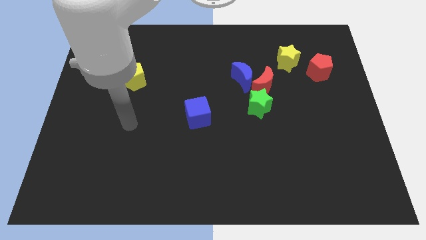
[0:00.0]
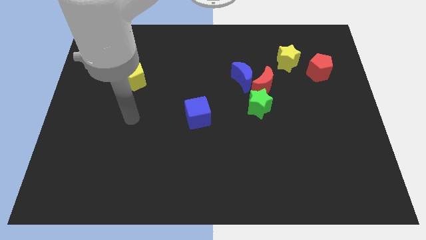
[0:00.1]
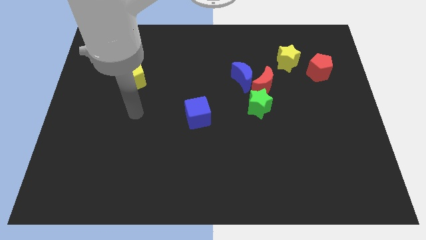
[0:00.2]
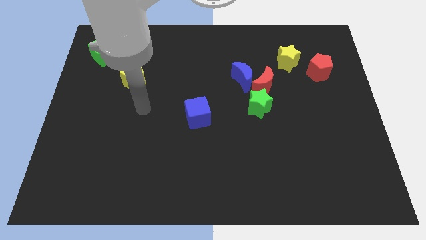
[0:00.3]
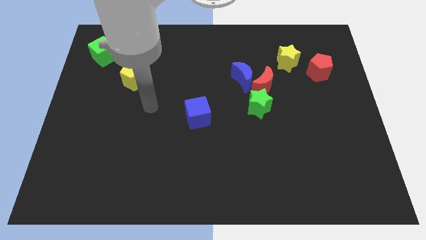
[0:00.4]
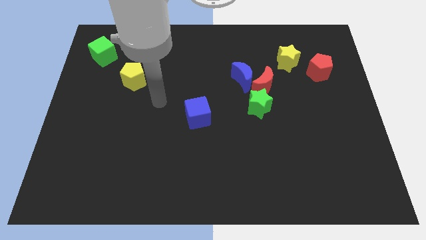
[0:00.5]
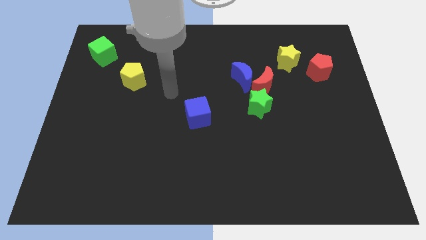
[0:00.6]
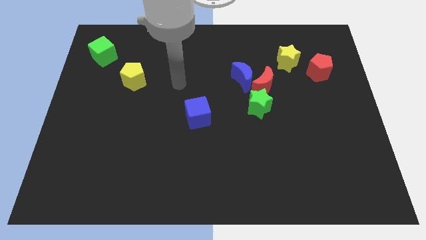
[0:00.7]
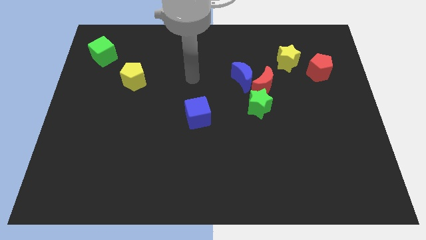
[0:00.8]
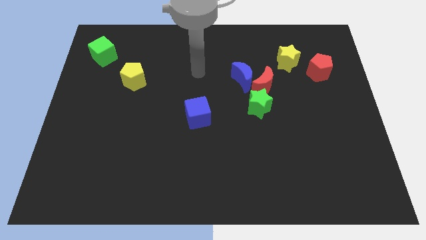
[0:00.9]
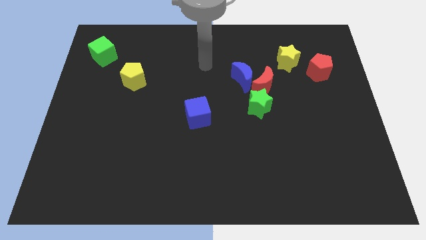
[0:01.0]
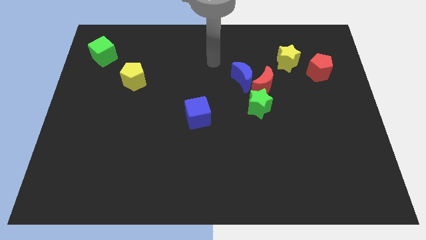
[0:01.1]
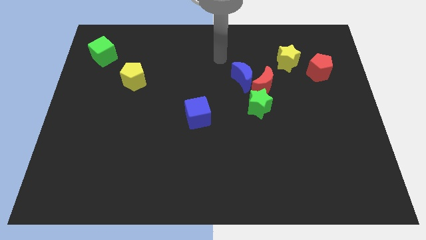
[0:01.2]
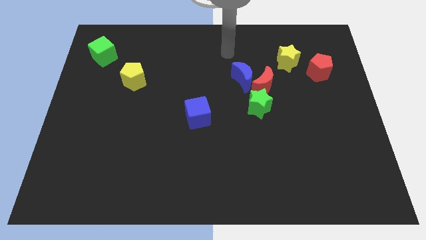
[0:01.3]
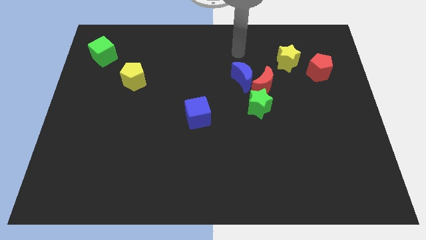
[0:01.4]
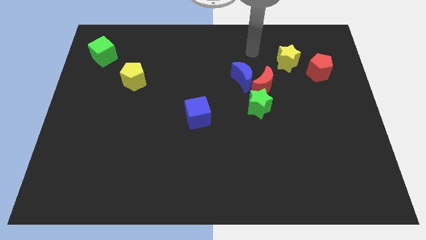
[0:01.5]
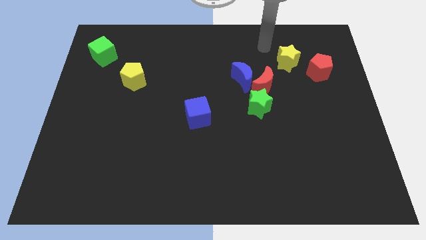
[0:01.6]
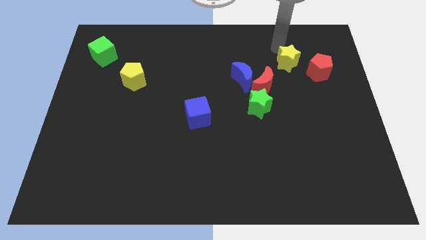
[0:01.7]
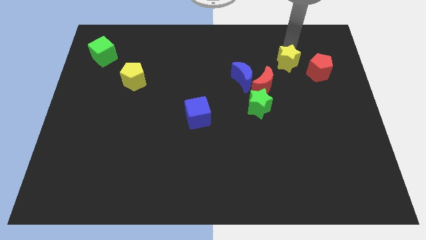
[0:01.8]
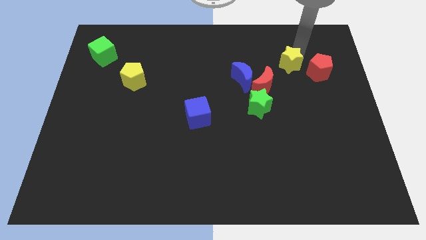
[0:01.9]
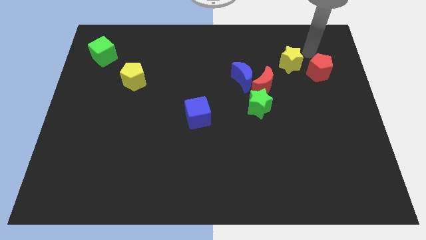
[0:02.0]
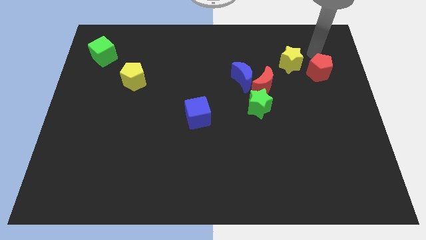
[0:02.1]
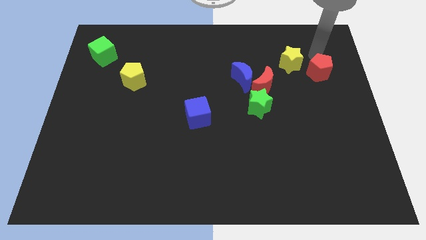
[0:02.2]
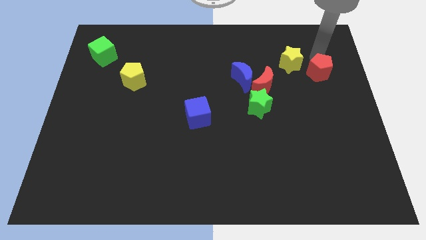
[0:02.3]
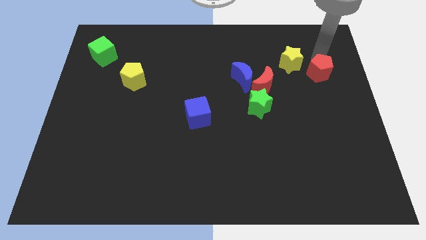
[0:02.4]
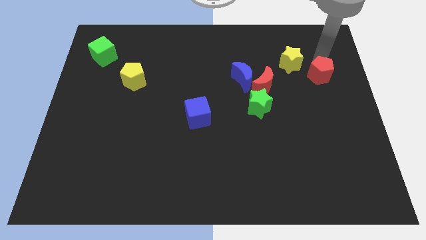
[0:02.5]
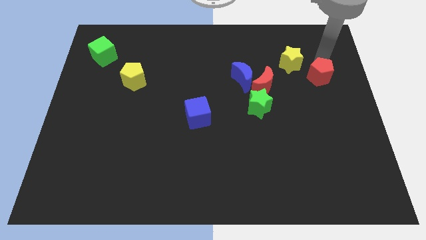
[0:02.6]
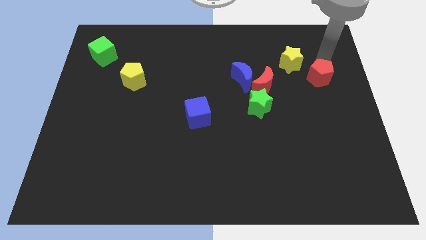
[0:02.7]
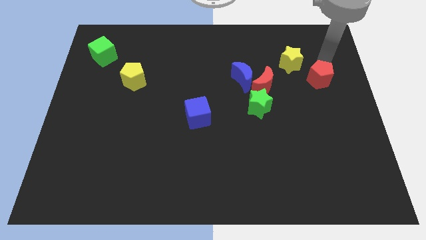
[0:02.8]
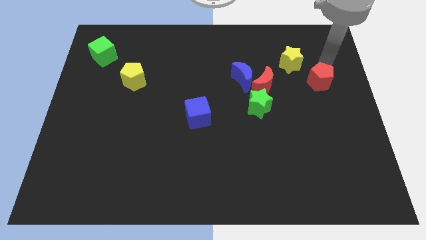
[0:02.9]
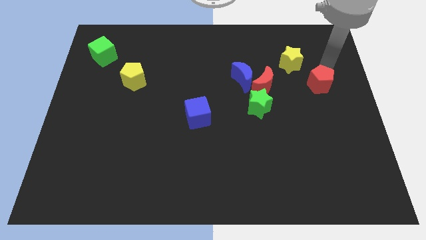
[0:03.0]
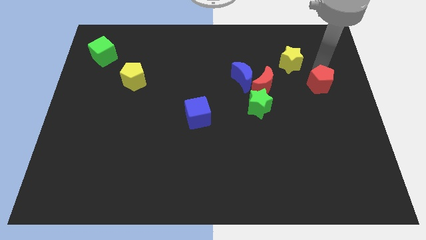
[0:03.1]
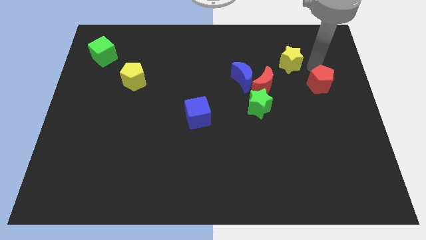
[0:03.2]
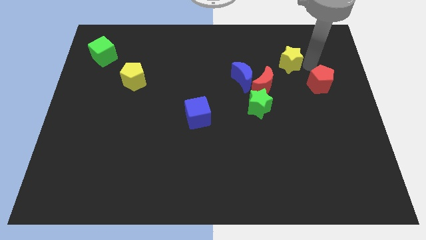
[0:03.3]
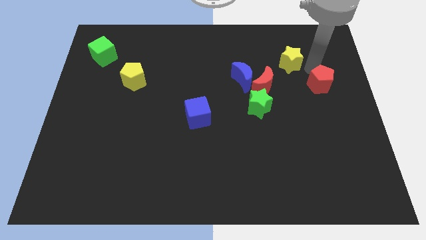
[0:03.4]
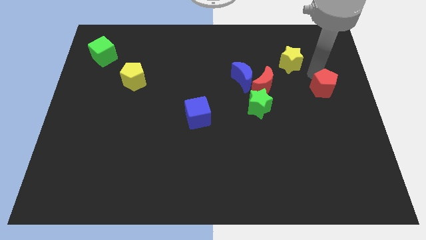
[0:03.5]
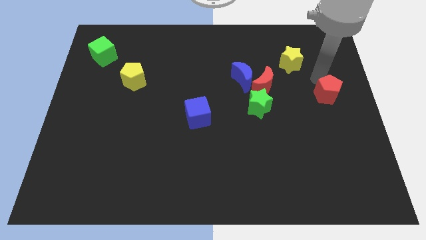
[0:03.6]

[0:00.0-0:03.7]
slightly push the red pentagon down

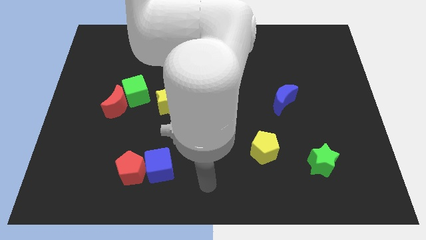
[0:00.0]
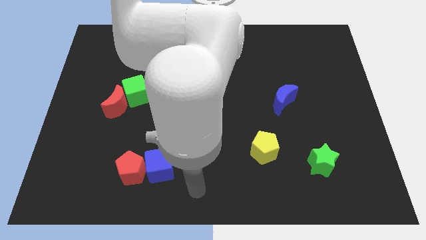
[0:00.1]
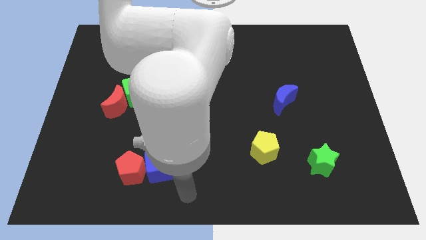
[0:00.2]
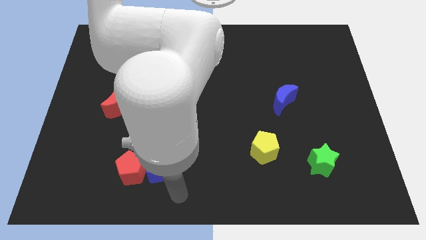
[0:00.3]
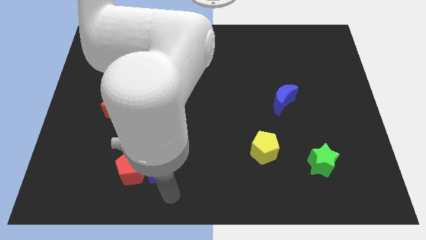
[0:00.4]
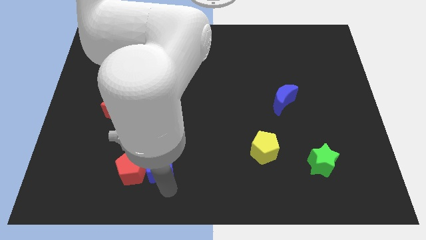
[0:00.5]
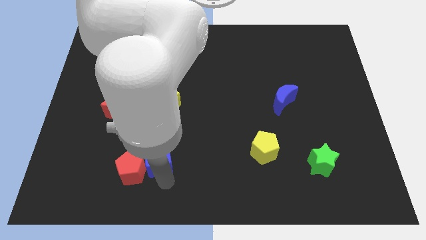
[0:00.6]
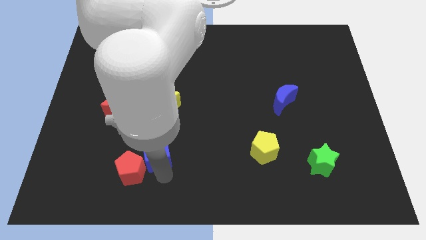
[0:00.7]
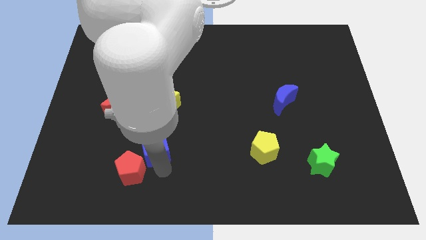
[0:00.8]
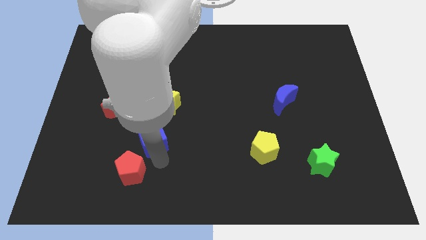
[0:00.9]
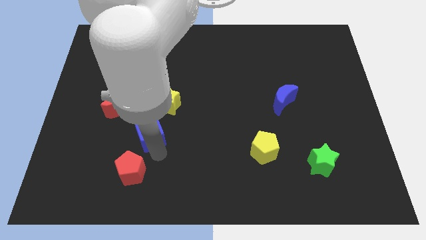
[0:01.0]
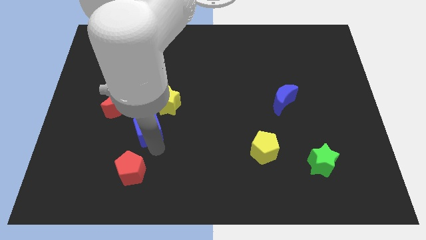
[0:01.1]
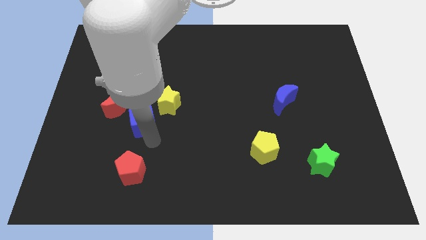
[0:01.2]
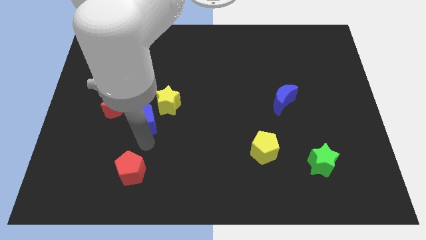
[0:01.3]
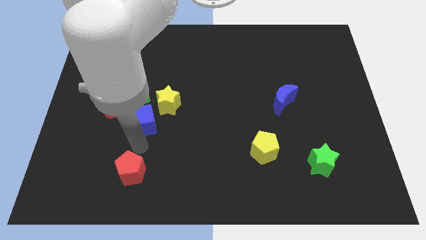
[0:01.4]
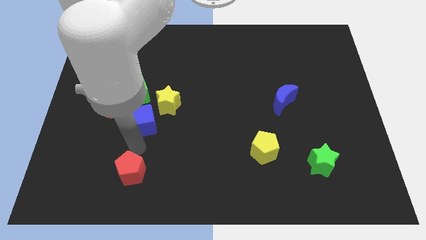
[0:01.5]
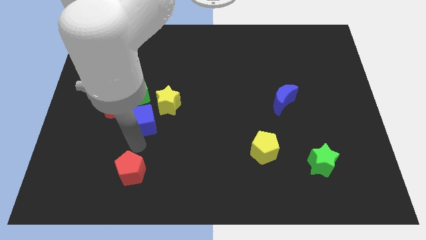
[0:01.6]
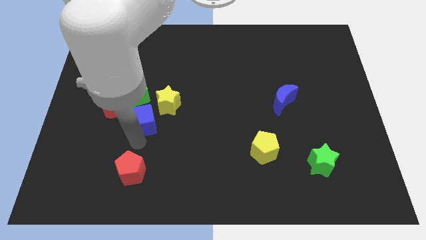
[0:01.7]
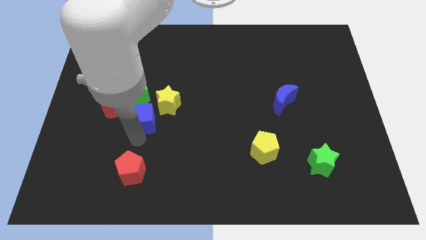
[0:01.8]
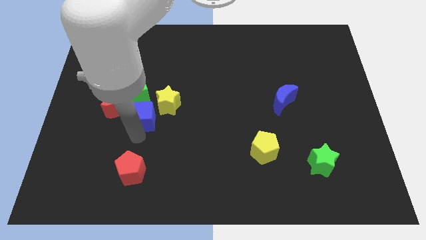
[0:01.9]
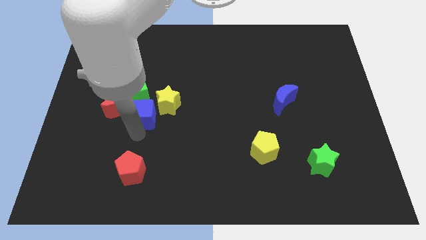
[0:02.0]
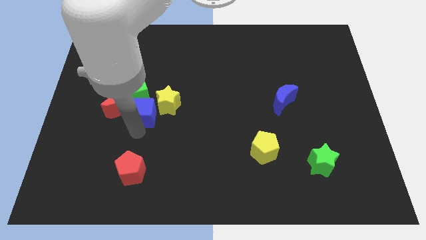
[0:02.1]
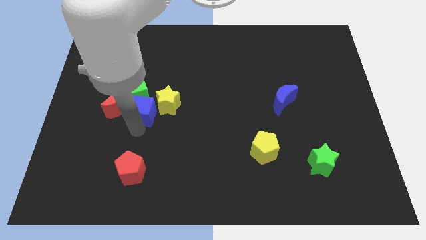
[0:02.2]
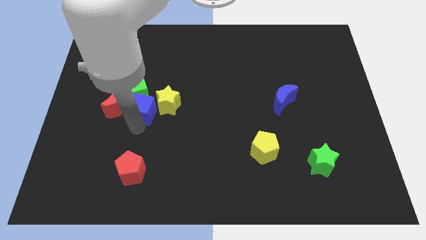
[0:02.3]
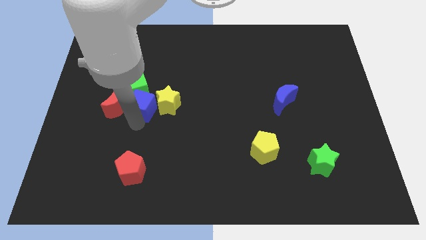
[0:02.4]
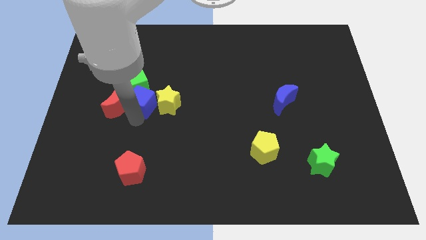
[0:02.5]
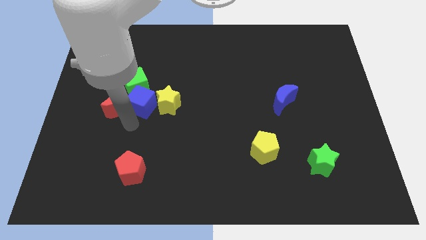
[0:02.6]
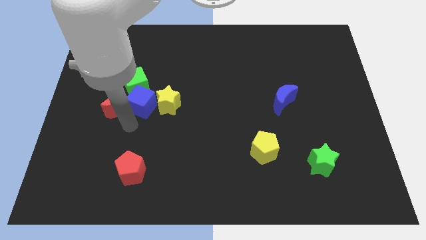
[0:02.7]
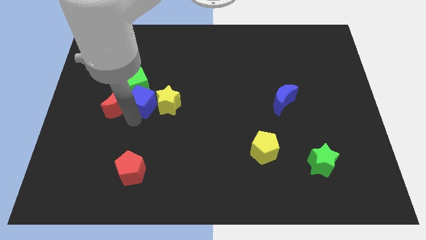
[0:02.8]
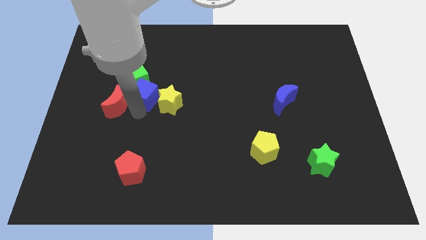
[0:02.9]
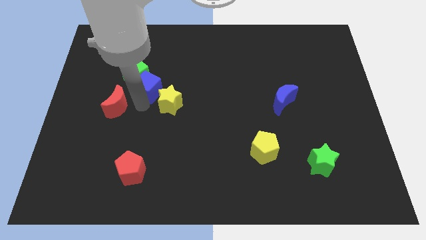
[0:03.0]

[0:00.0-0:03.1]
move the blue cube up

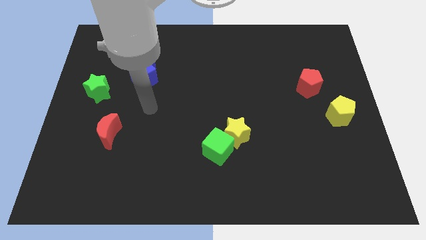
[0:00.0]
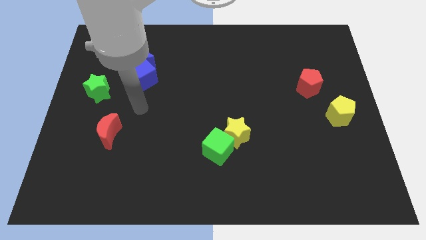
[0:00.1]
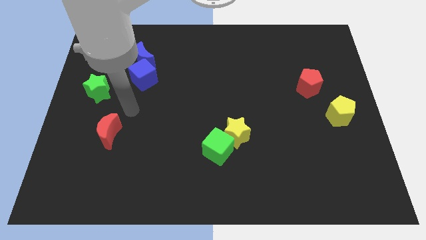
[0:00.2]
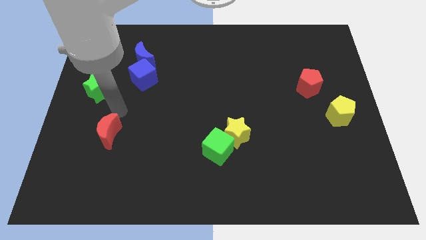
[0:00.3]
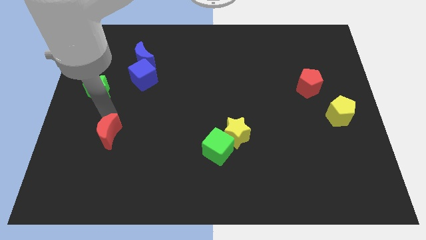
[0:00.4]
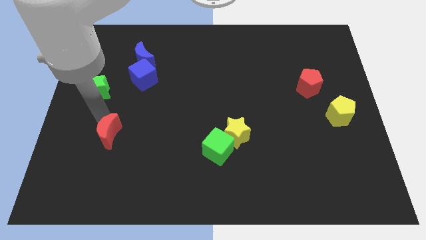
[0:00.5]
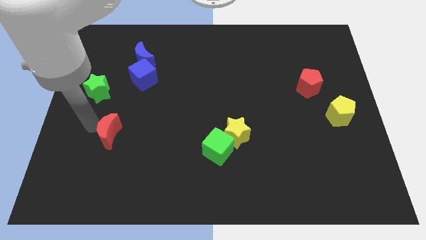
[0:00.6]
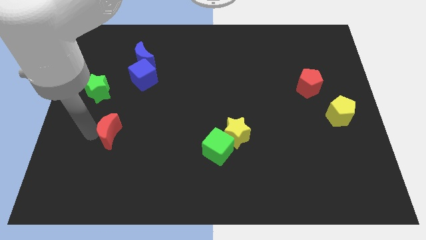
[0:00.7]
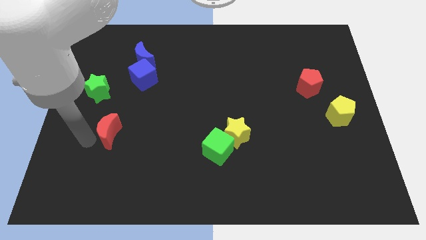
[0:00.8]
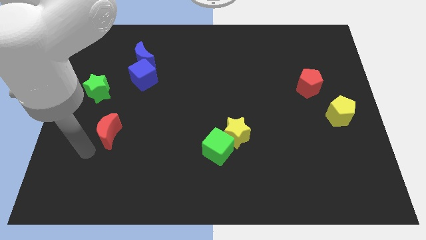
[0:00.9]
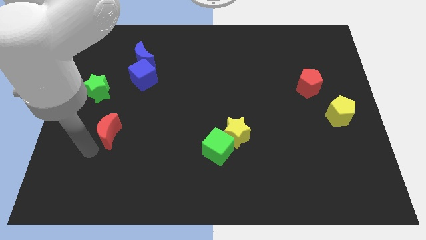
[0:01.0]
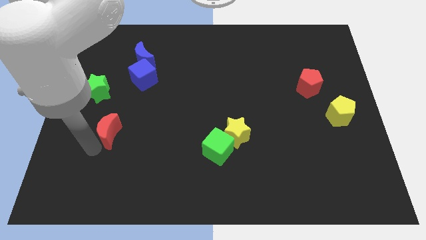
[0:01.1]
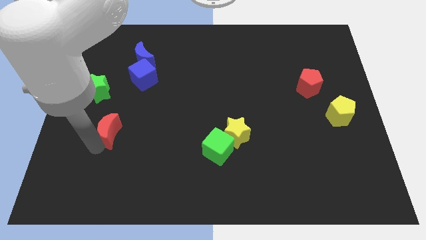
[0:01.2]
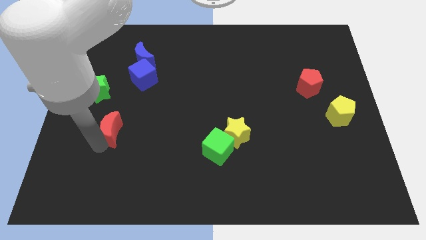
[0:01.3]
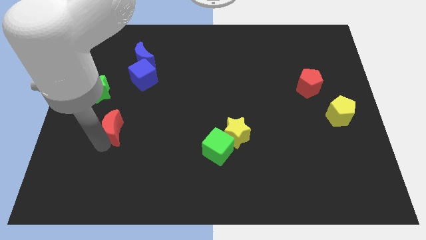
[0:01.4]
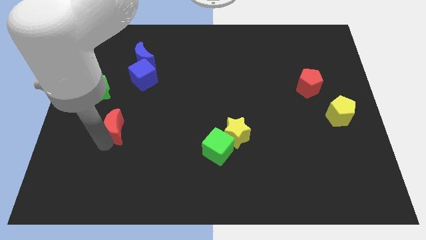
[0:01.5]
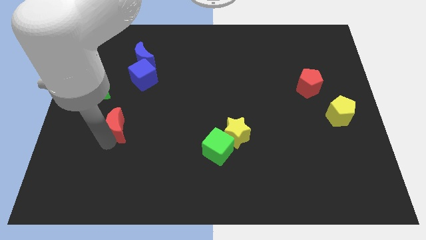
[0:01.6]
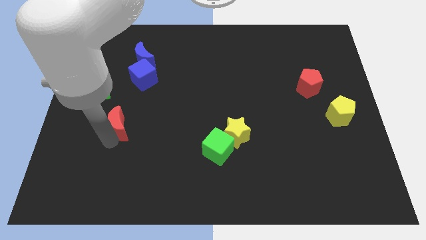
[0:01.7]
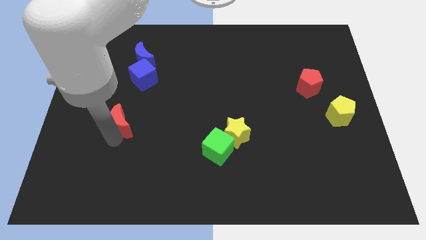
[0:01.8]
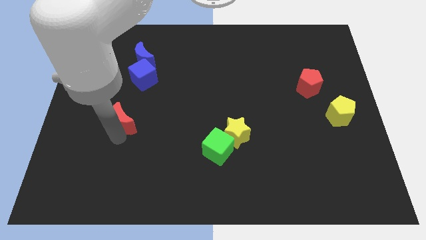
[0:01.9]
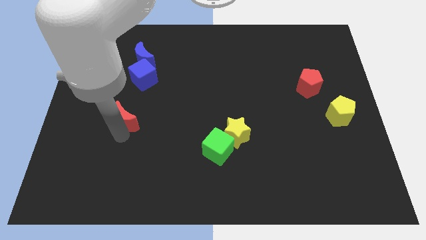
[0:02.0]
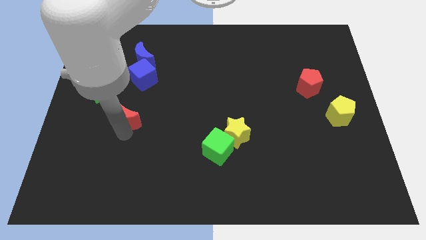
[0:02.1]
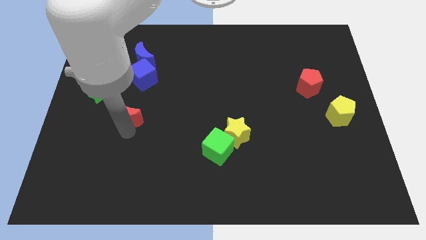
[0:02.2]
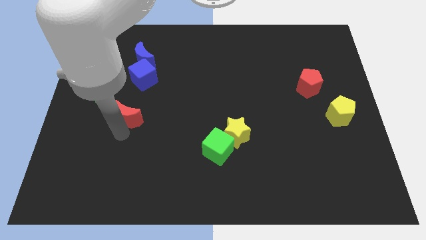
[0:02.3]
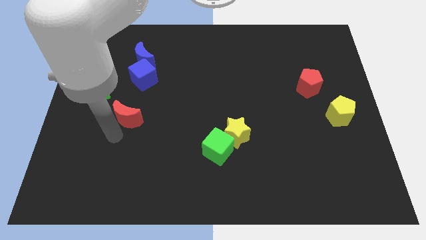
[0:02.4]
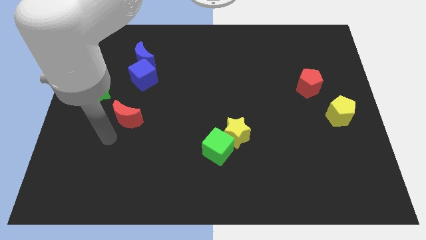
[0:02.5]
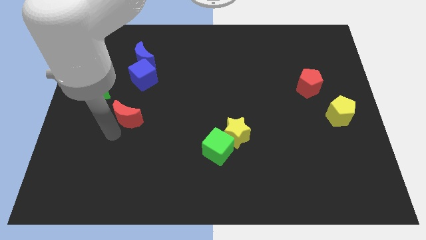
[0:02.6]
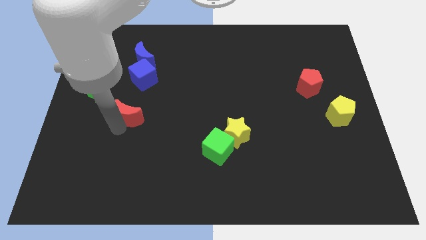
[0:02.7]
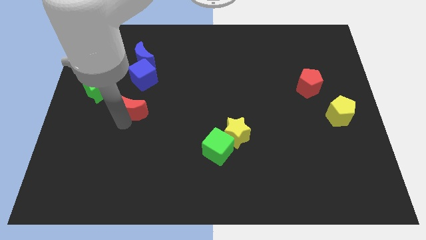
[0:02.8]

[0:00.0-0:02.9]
slide the red moon slightly up and to the right
